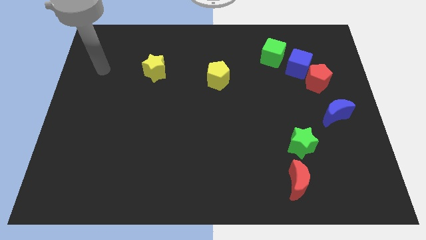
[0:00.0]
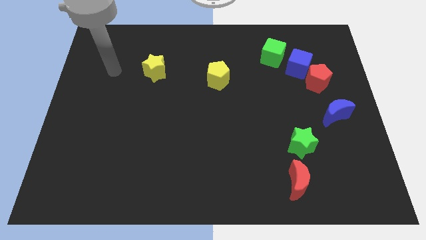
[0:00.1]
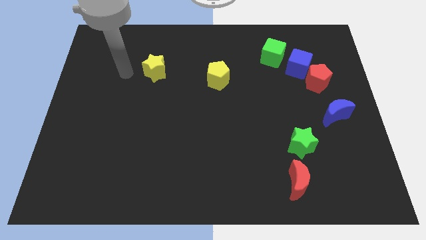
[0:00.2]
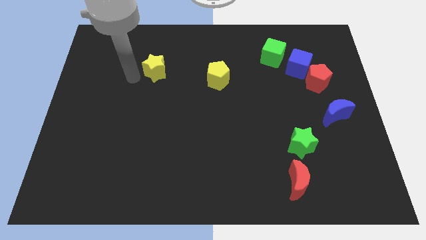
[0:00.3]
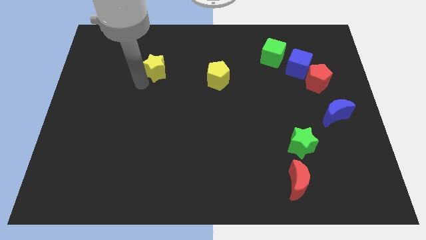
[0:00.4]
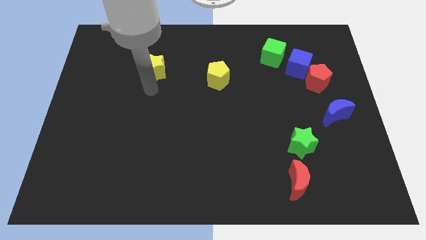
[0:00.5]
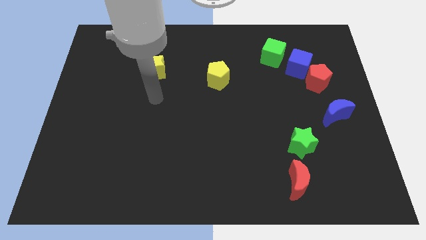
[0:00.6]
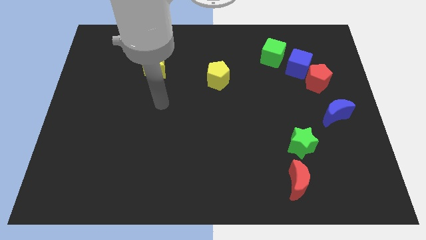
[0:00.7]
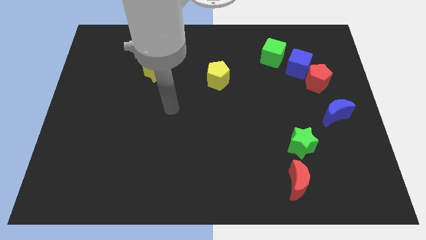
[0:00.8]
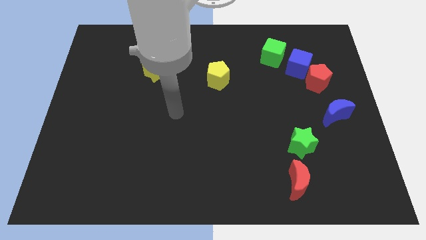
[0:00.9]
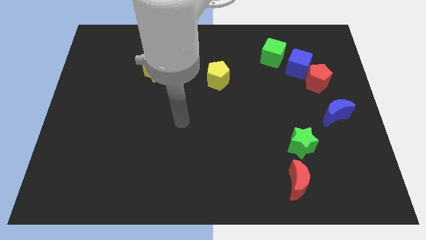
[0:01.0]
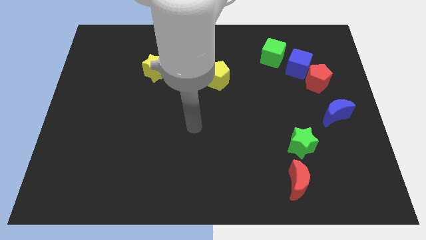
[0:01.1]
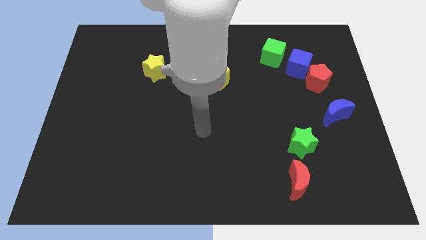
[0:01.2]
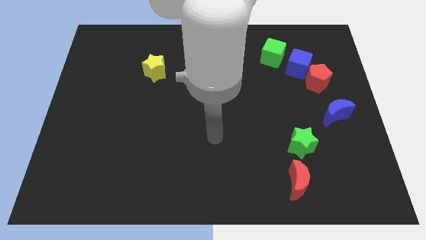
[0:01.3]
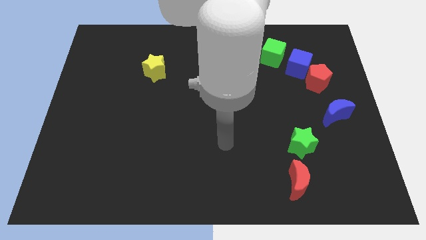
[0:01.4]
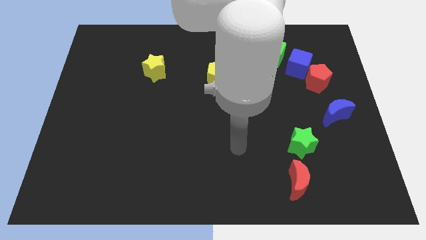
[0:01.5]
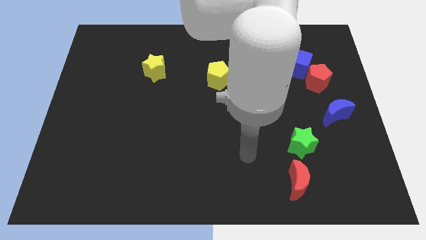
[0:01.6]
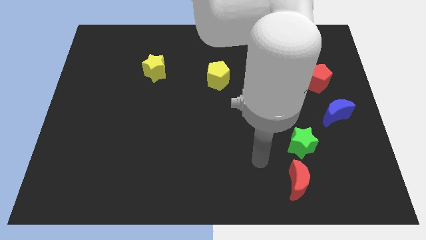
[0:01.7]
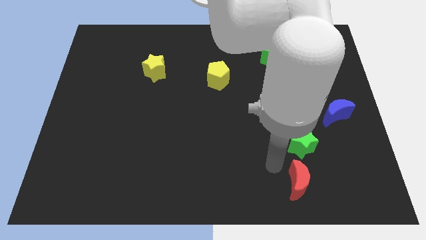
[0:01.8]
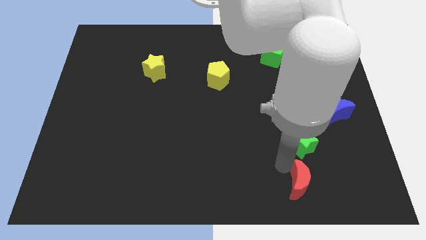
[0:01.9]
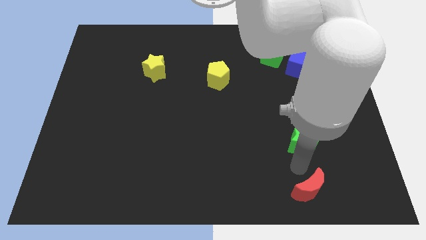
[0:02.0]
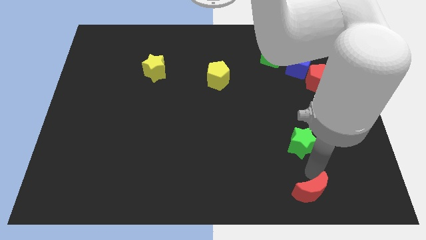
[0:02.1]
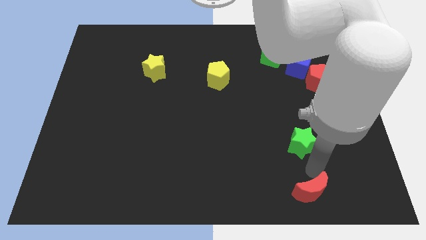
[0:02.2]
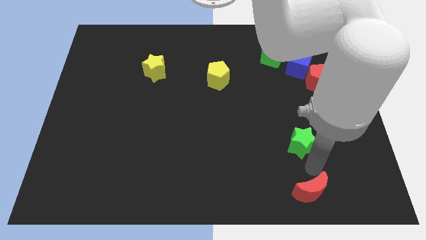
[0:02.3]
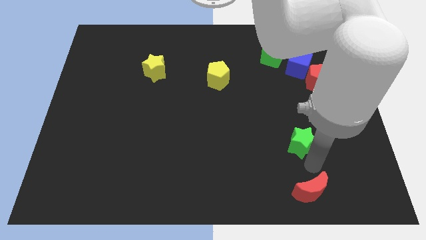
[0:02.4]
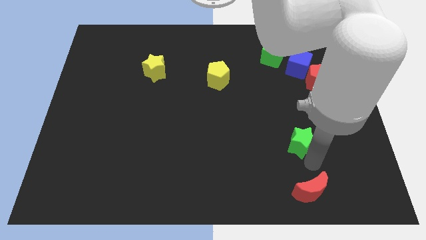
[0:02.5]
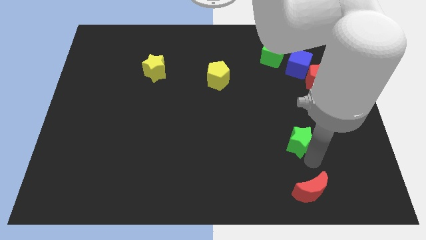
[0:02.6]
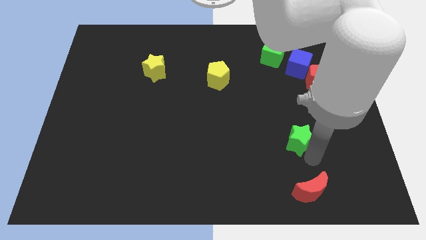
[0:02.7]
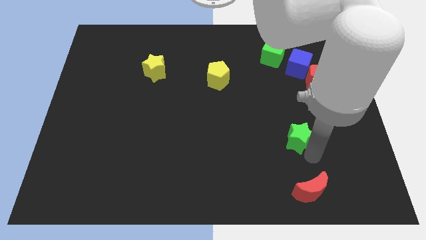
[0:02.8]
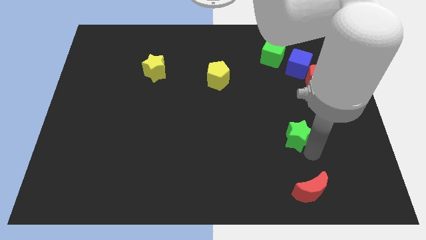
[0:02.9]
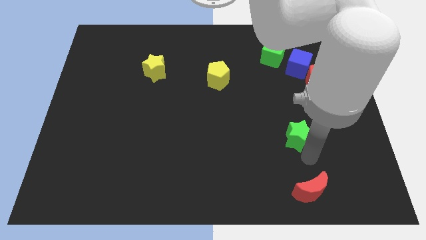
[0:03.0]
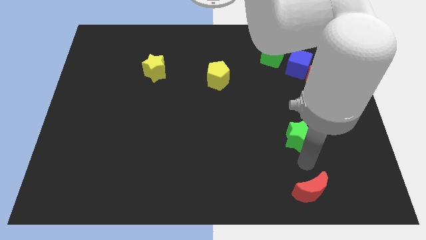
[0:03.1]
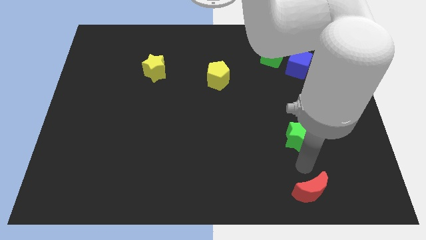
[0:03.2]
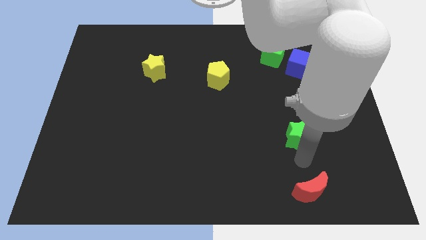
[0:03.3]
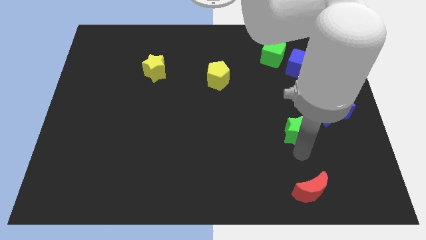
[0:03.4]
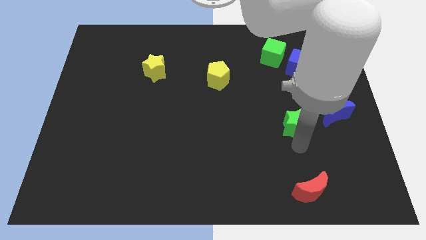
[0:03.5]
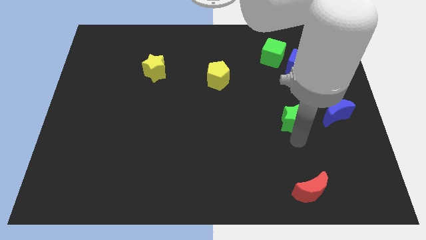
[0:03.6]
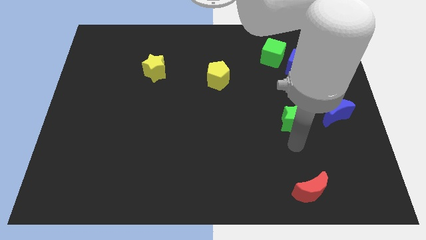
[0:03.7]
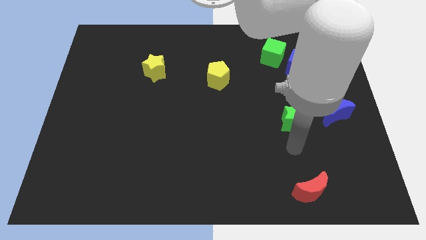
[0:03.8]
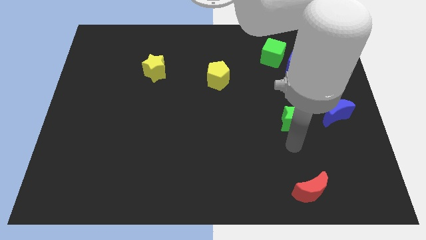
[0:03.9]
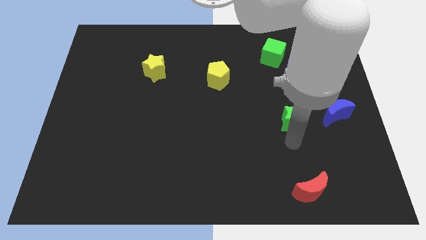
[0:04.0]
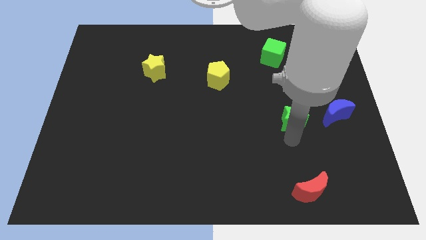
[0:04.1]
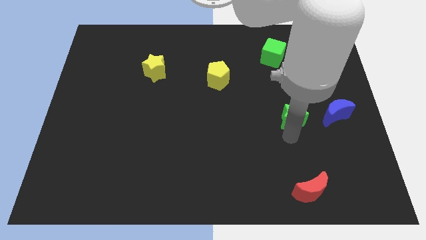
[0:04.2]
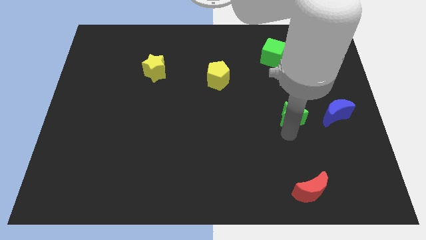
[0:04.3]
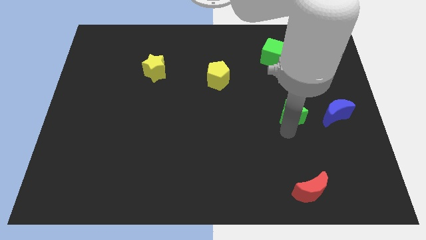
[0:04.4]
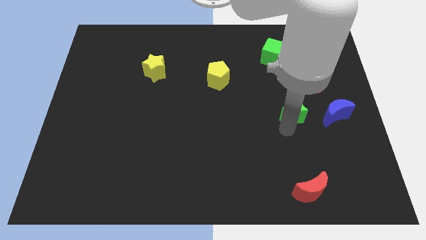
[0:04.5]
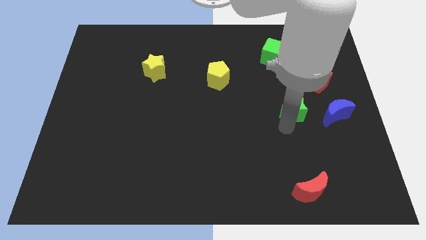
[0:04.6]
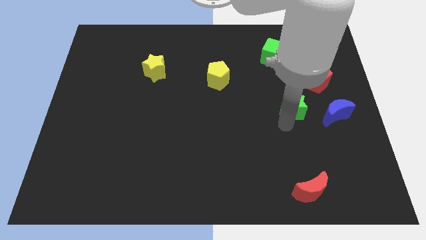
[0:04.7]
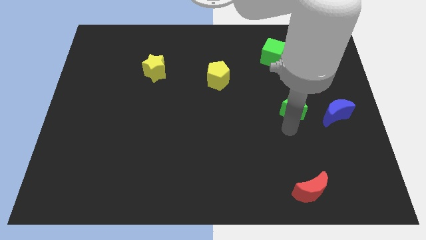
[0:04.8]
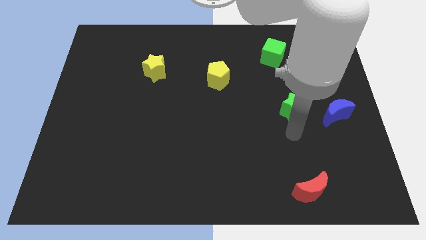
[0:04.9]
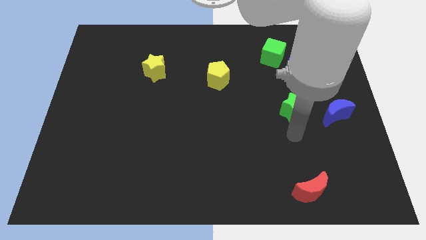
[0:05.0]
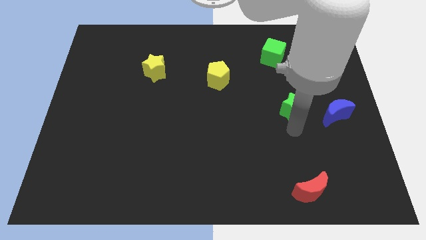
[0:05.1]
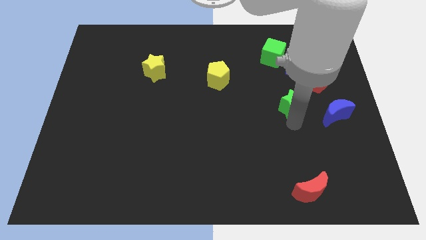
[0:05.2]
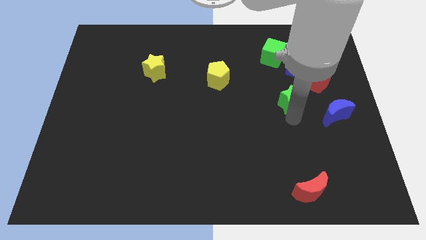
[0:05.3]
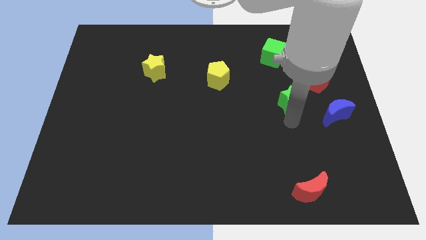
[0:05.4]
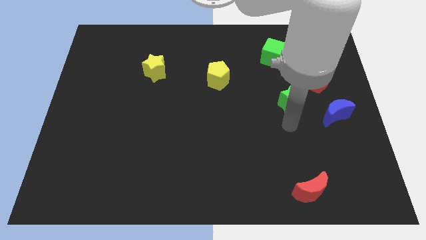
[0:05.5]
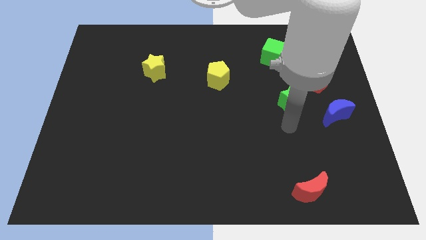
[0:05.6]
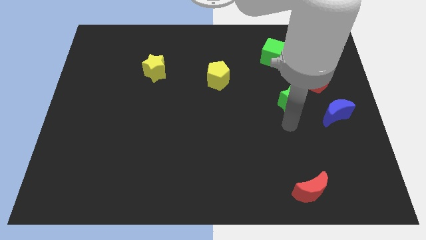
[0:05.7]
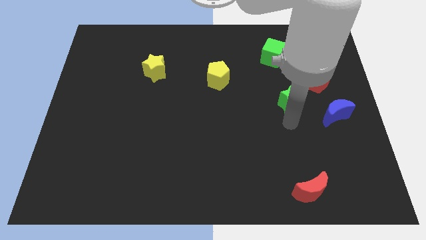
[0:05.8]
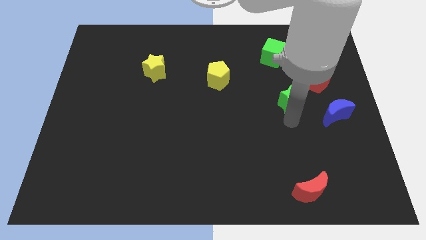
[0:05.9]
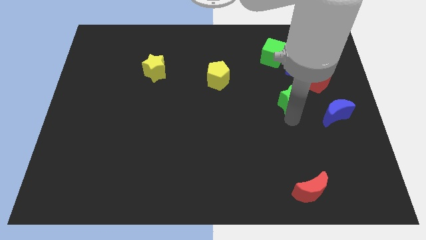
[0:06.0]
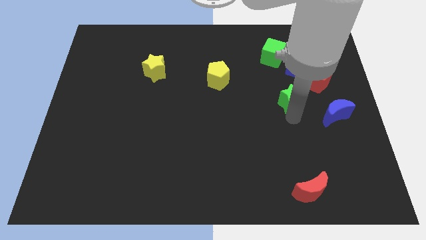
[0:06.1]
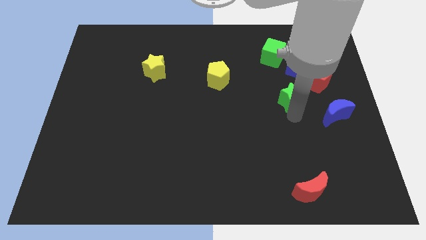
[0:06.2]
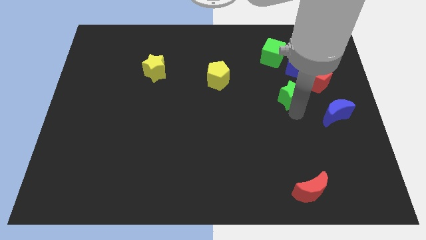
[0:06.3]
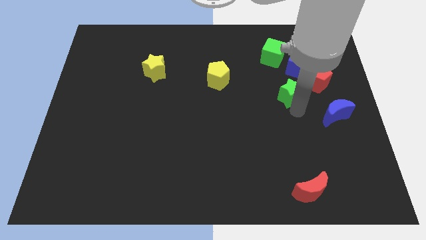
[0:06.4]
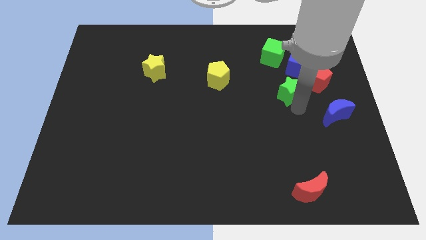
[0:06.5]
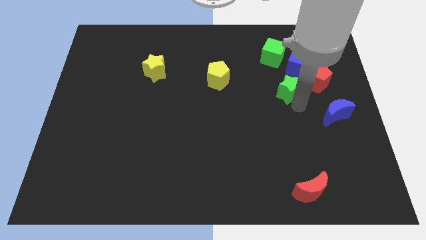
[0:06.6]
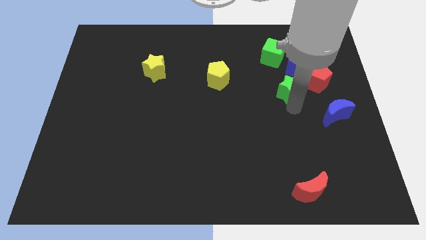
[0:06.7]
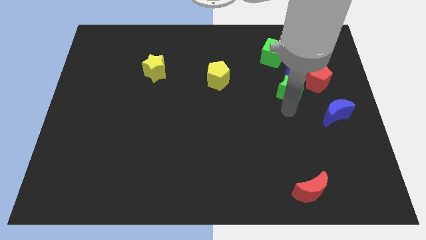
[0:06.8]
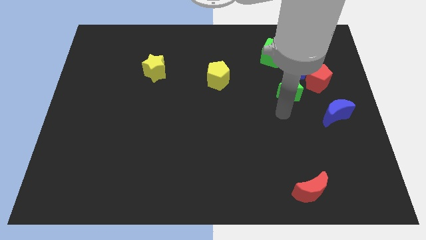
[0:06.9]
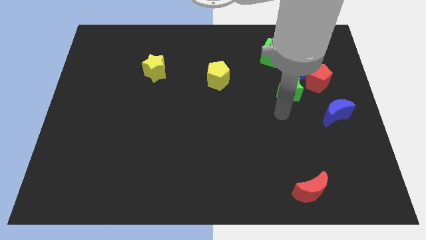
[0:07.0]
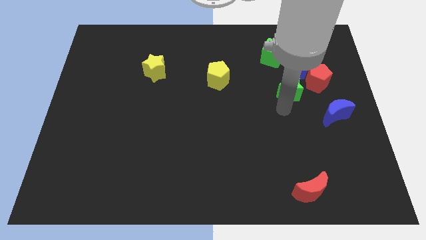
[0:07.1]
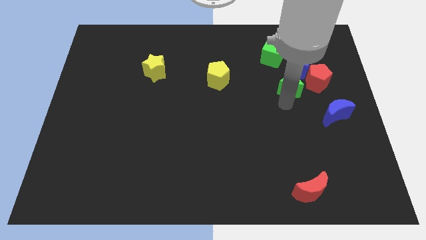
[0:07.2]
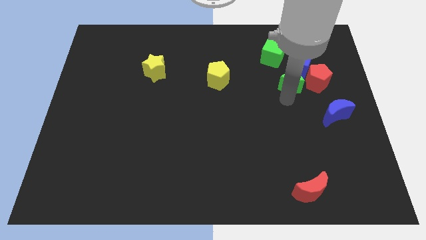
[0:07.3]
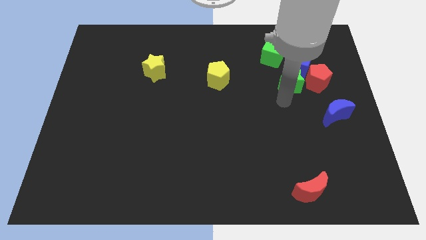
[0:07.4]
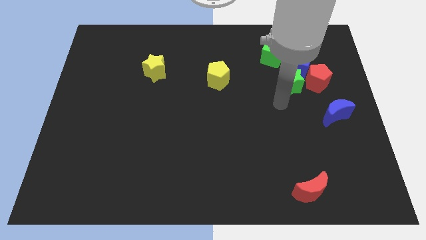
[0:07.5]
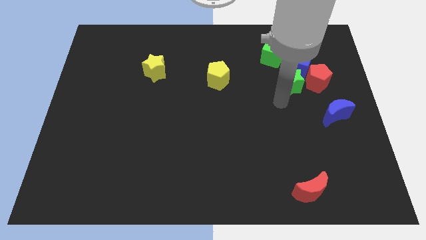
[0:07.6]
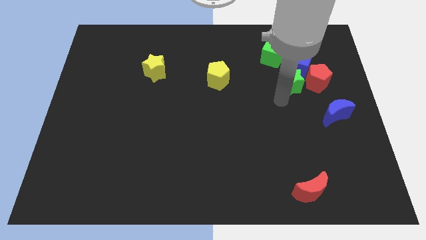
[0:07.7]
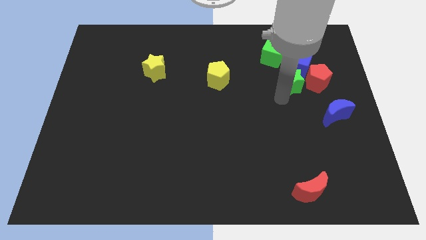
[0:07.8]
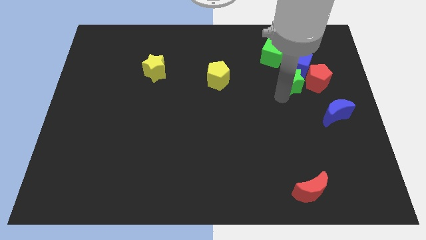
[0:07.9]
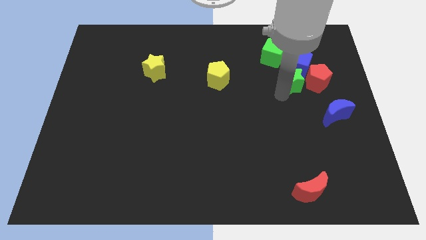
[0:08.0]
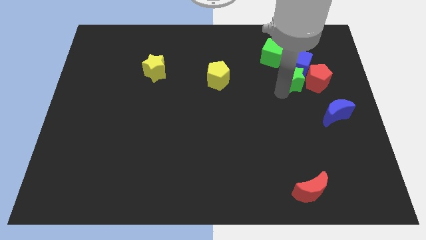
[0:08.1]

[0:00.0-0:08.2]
put the green star close to the blue cube

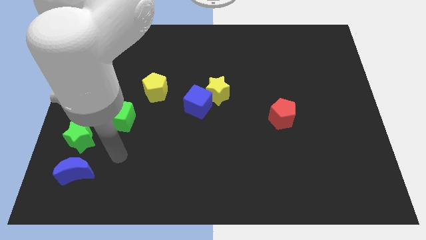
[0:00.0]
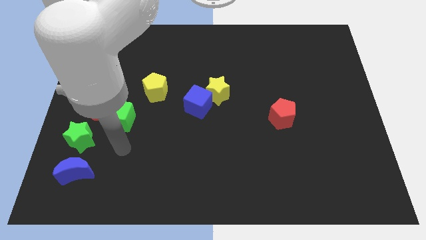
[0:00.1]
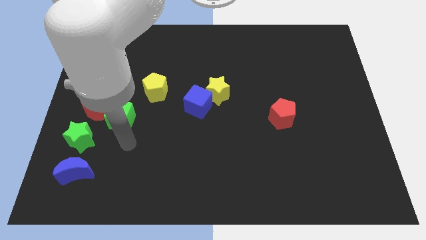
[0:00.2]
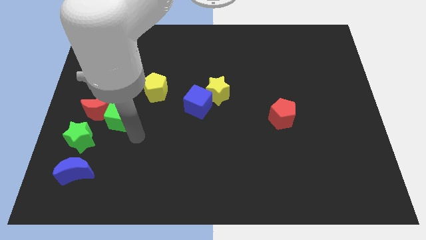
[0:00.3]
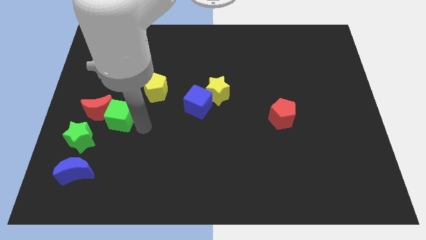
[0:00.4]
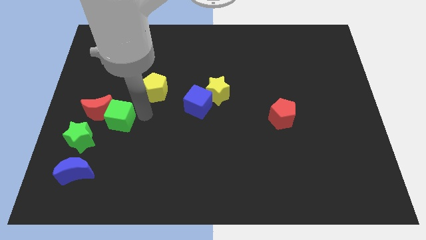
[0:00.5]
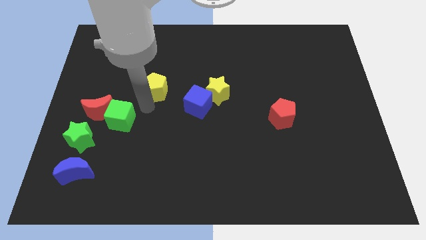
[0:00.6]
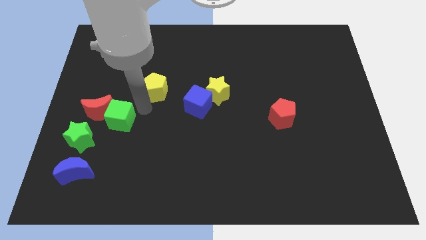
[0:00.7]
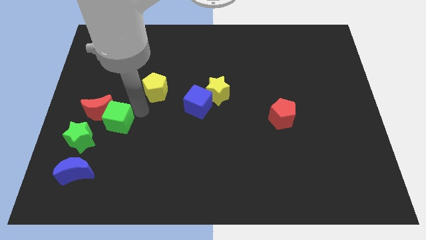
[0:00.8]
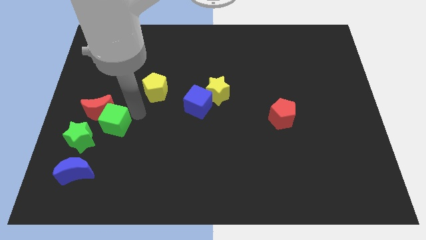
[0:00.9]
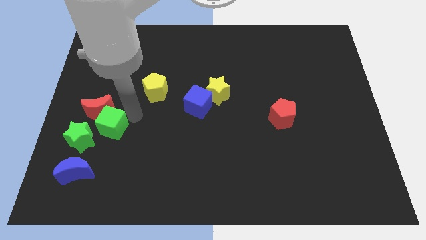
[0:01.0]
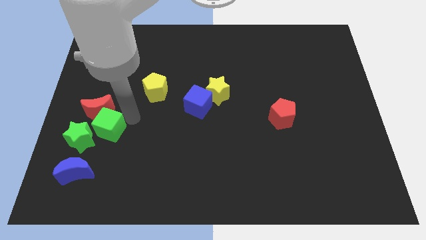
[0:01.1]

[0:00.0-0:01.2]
move the green cube towards the green star
